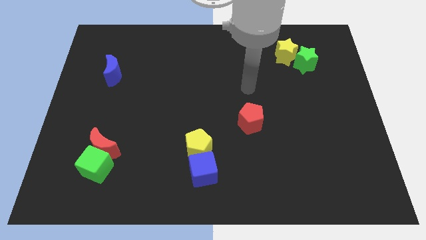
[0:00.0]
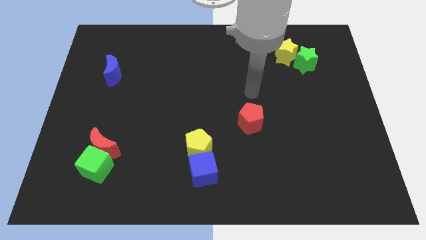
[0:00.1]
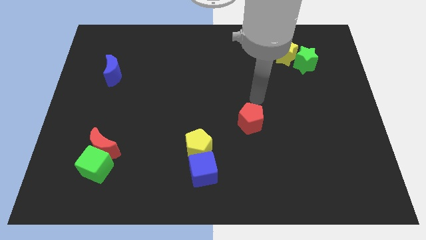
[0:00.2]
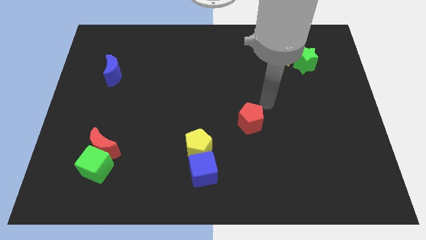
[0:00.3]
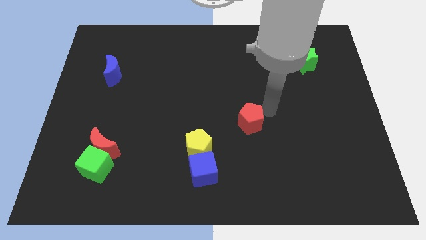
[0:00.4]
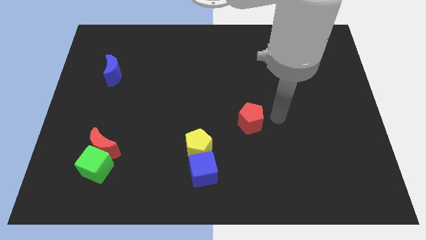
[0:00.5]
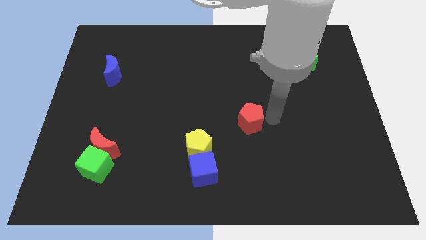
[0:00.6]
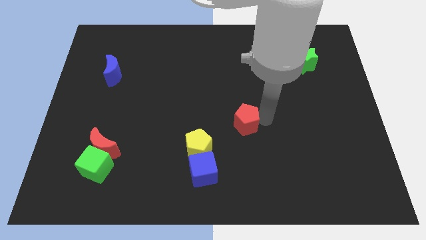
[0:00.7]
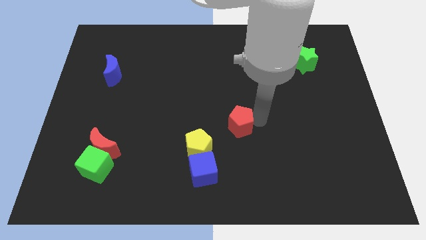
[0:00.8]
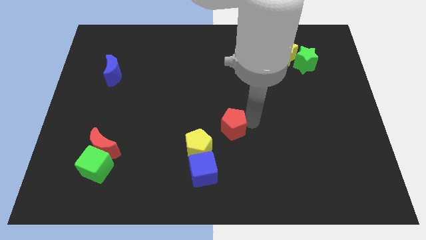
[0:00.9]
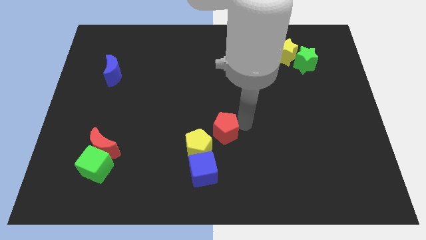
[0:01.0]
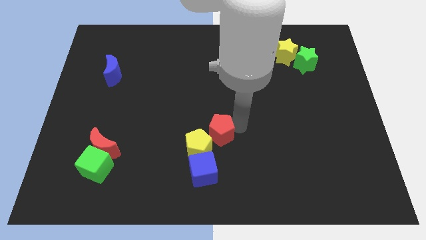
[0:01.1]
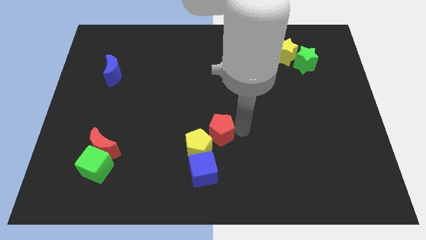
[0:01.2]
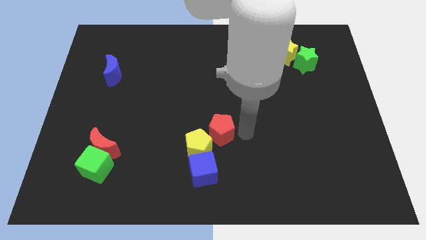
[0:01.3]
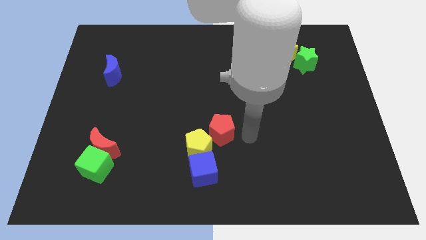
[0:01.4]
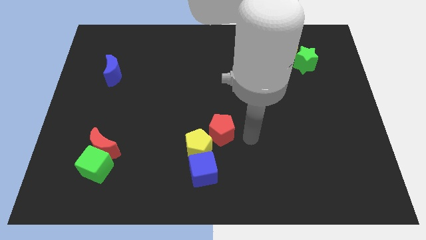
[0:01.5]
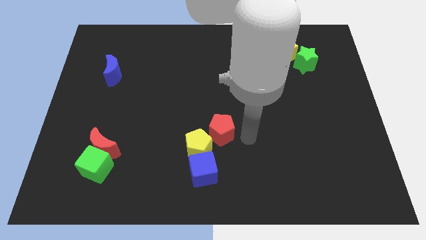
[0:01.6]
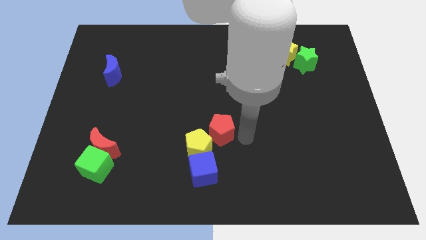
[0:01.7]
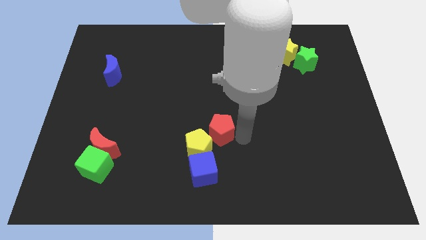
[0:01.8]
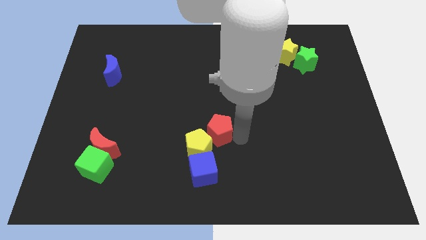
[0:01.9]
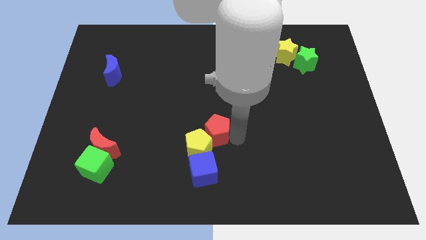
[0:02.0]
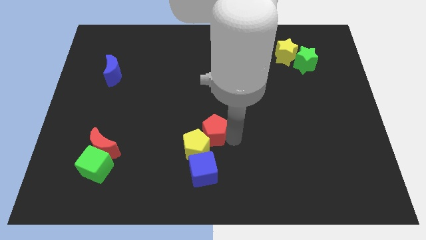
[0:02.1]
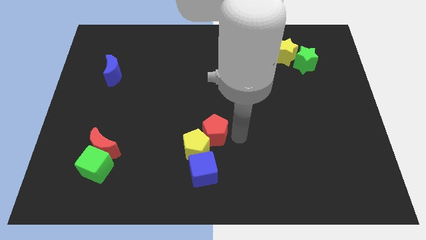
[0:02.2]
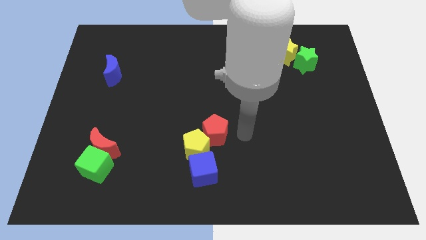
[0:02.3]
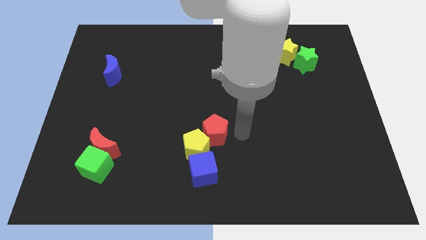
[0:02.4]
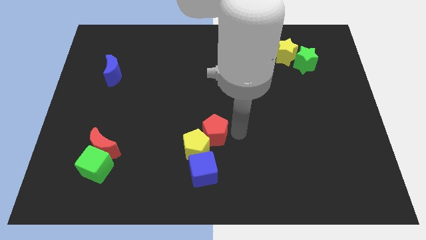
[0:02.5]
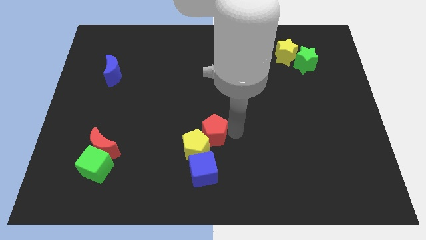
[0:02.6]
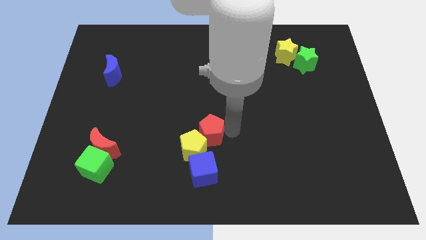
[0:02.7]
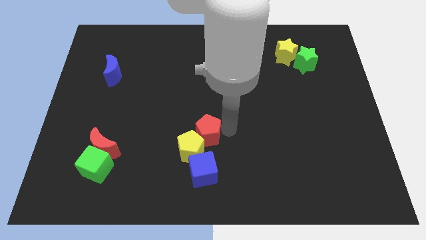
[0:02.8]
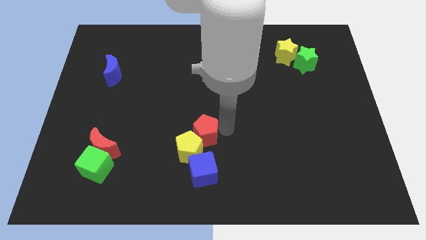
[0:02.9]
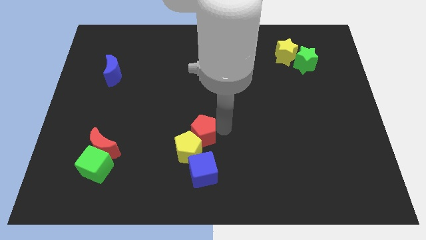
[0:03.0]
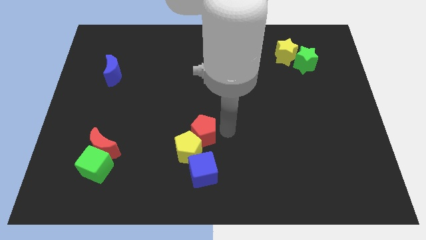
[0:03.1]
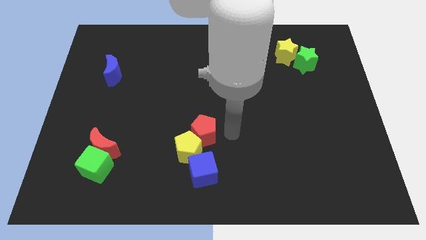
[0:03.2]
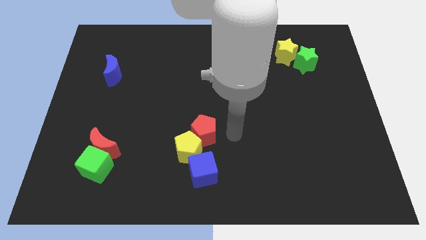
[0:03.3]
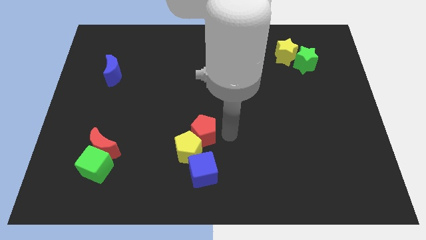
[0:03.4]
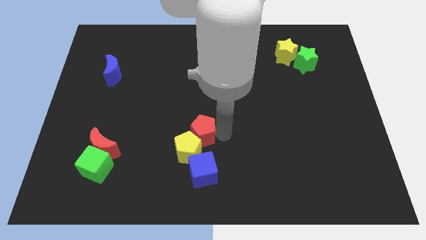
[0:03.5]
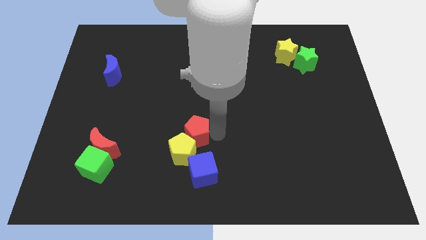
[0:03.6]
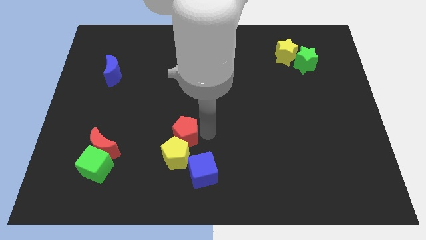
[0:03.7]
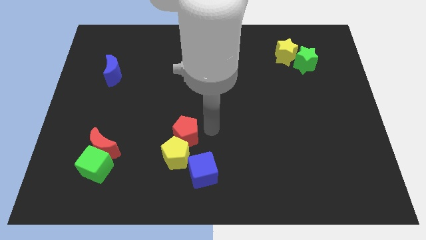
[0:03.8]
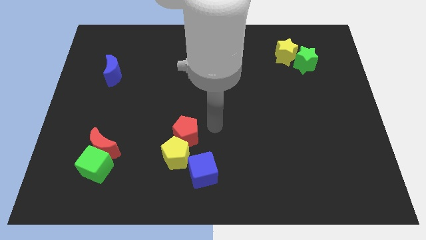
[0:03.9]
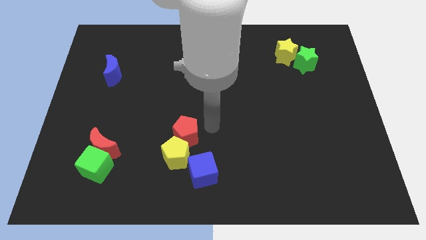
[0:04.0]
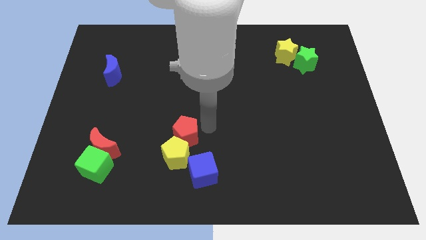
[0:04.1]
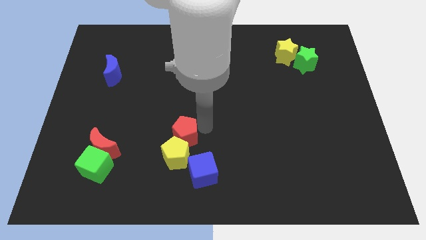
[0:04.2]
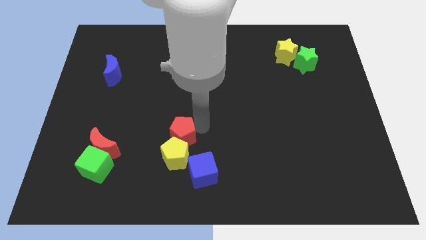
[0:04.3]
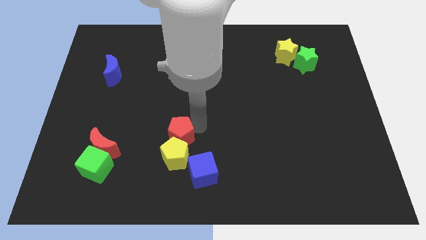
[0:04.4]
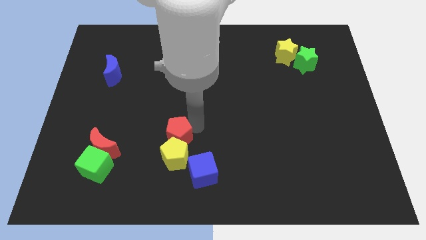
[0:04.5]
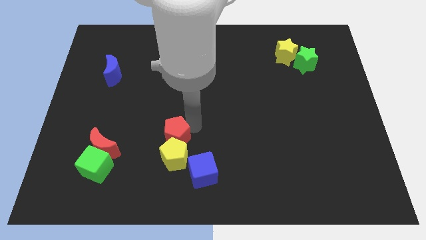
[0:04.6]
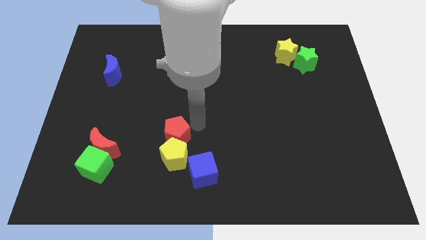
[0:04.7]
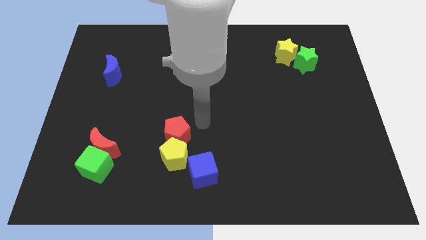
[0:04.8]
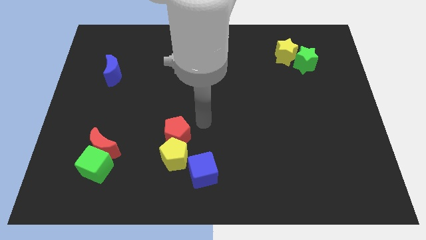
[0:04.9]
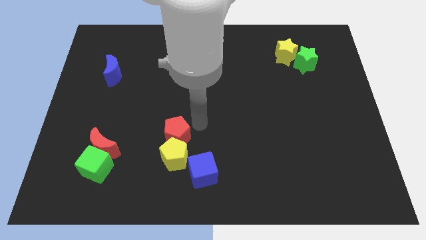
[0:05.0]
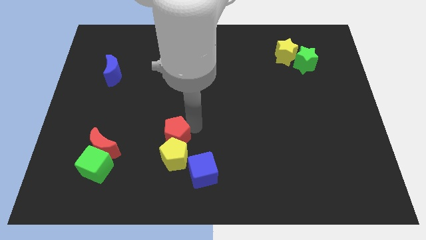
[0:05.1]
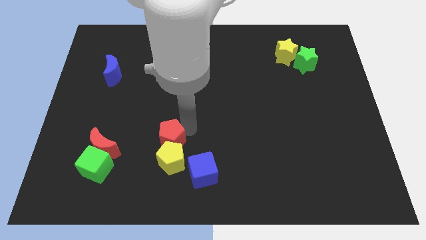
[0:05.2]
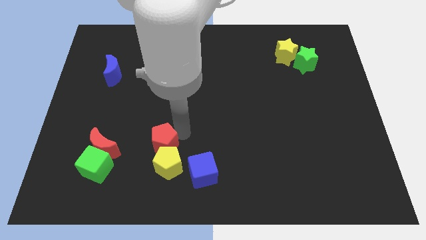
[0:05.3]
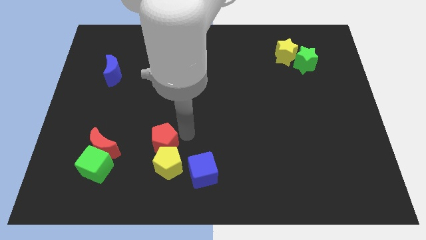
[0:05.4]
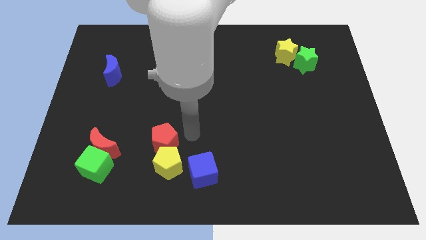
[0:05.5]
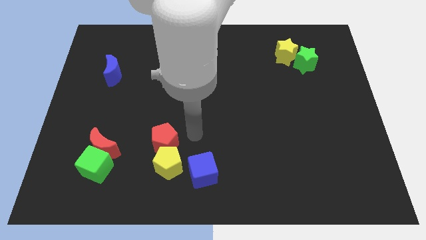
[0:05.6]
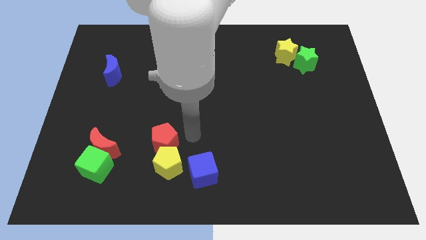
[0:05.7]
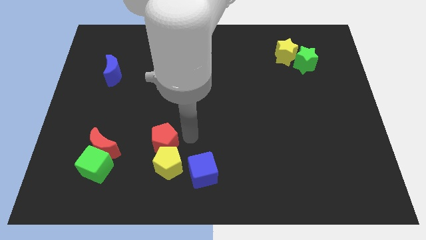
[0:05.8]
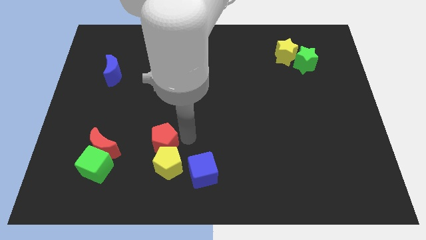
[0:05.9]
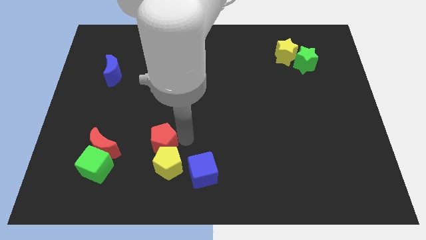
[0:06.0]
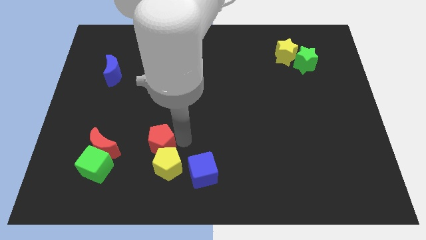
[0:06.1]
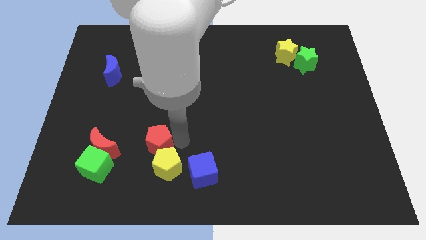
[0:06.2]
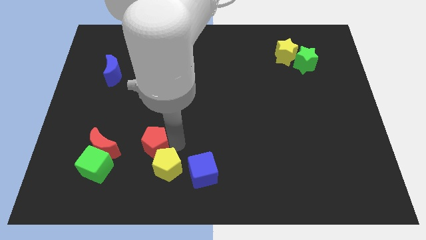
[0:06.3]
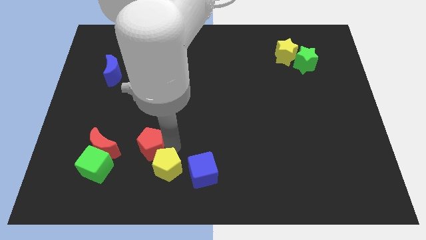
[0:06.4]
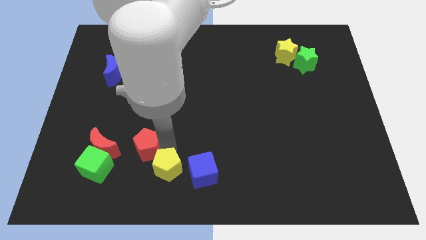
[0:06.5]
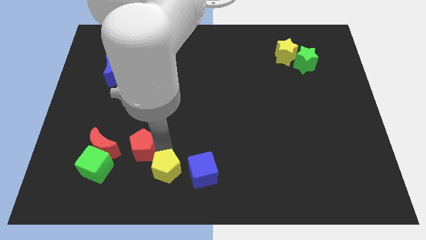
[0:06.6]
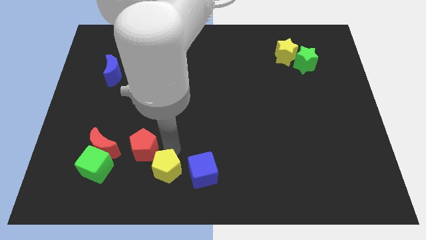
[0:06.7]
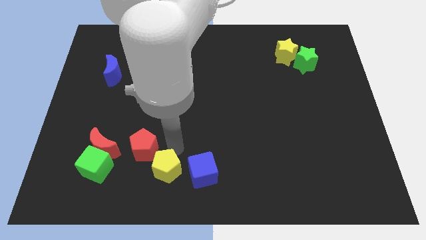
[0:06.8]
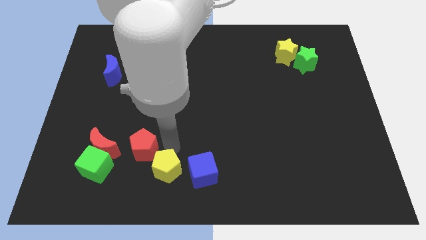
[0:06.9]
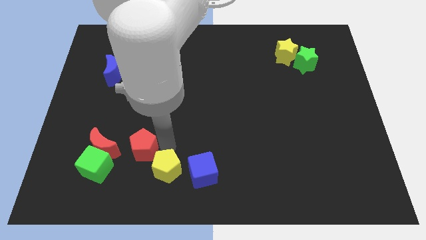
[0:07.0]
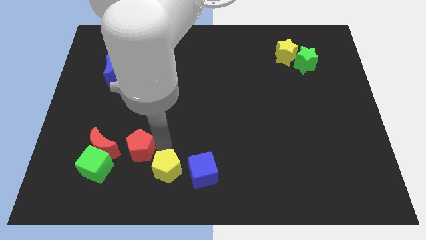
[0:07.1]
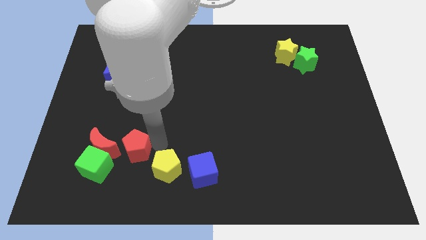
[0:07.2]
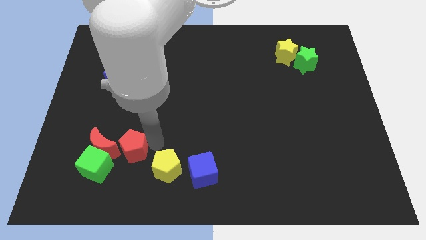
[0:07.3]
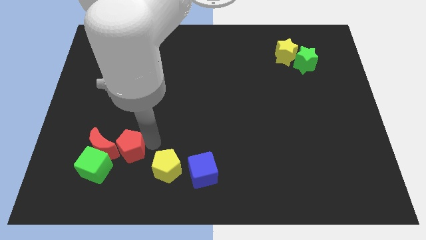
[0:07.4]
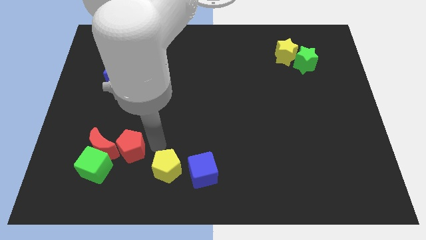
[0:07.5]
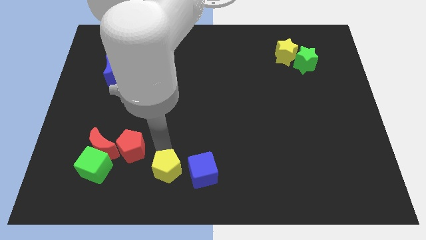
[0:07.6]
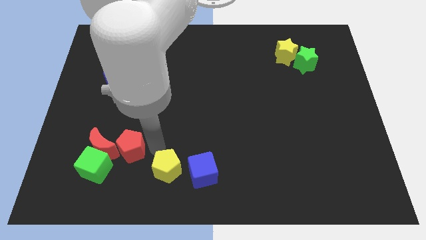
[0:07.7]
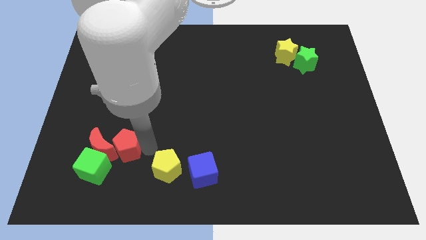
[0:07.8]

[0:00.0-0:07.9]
put the red pentagon to the red moon
